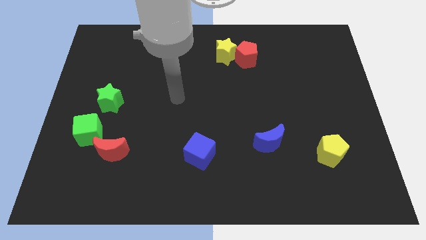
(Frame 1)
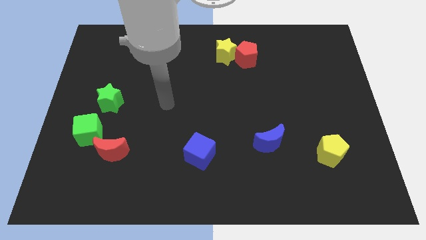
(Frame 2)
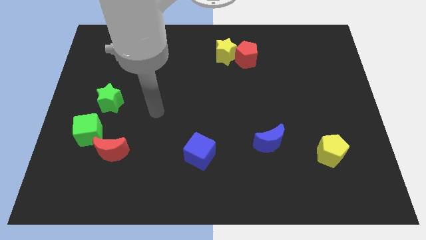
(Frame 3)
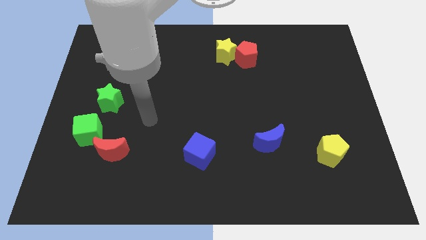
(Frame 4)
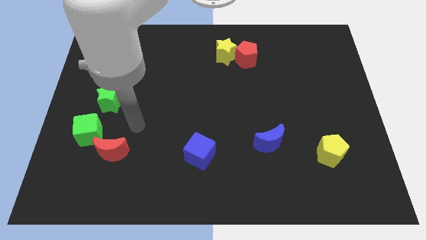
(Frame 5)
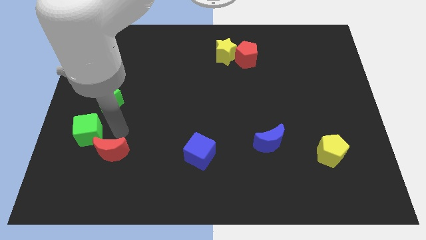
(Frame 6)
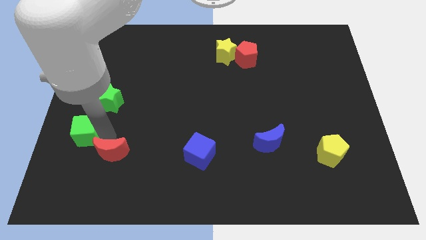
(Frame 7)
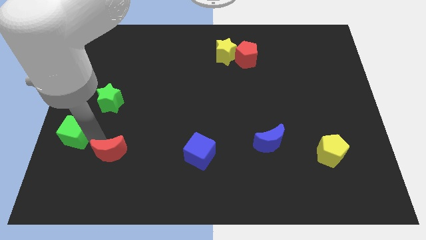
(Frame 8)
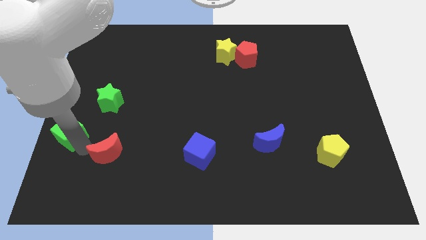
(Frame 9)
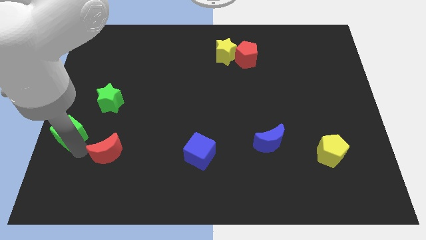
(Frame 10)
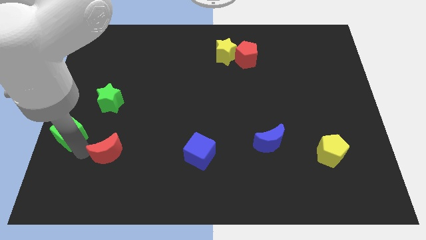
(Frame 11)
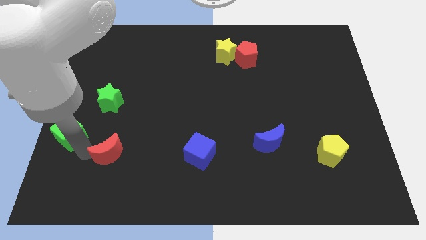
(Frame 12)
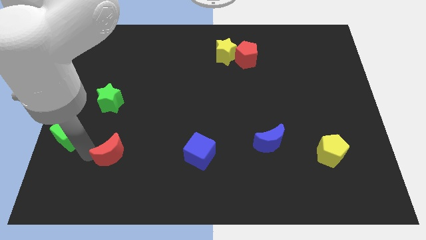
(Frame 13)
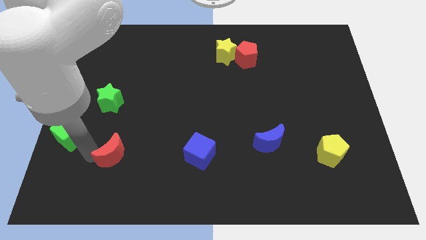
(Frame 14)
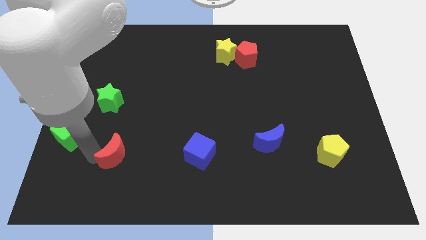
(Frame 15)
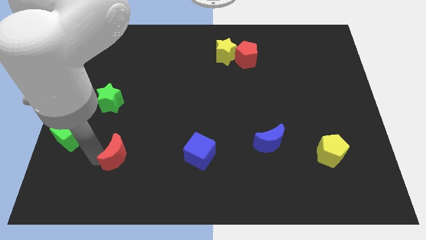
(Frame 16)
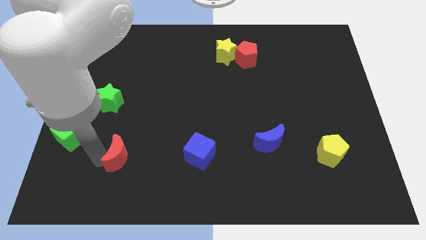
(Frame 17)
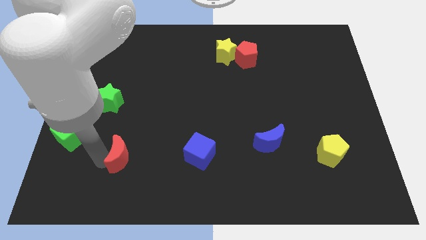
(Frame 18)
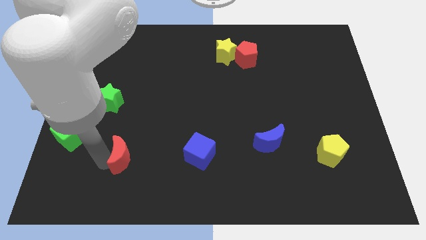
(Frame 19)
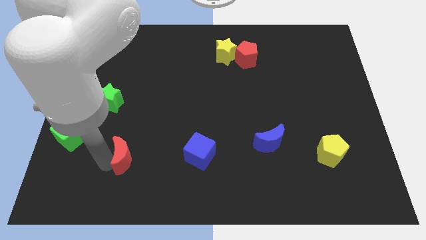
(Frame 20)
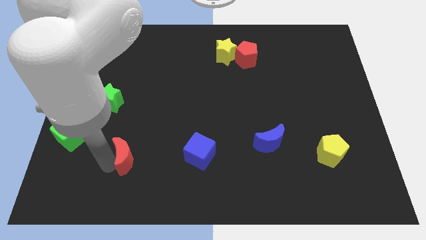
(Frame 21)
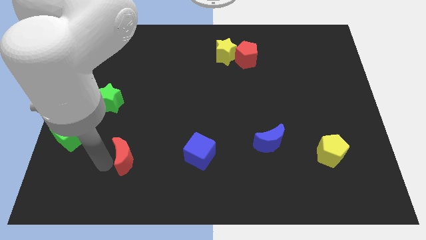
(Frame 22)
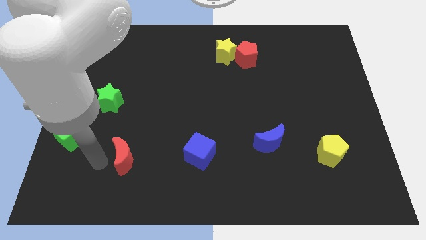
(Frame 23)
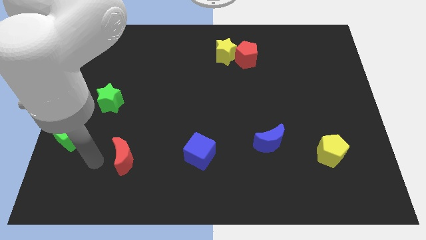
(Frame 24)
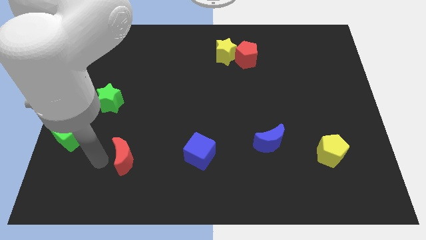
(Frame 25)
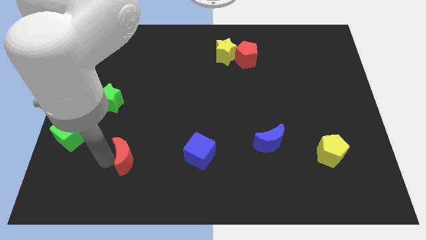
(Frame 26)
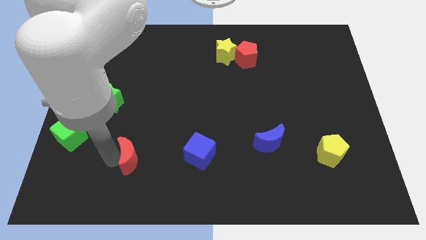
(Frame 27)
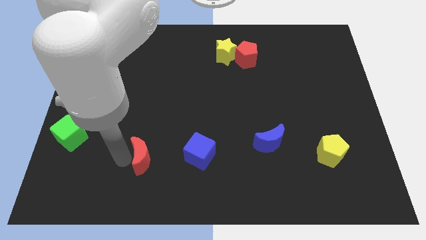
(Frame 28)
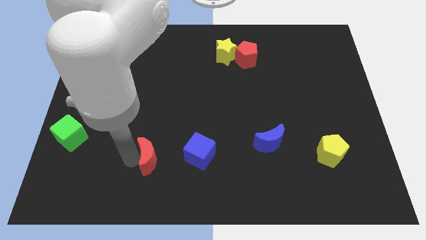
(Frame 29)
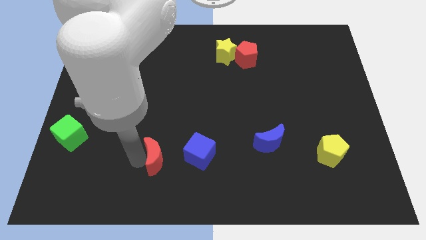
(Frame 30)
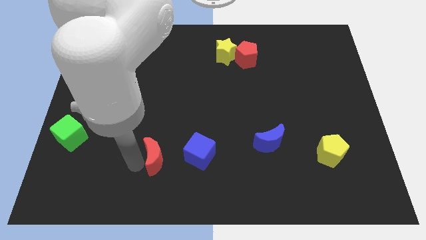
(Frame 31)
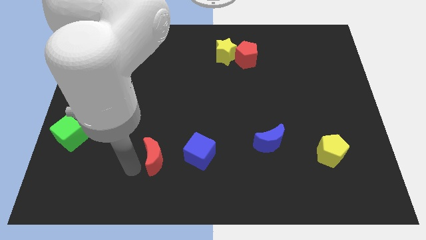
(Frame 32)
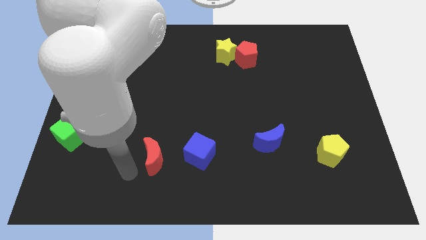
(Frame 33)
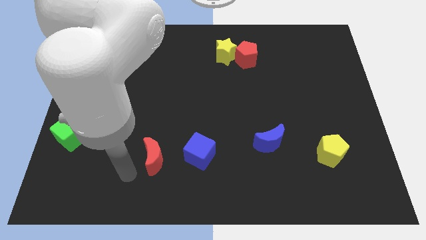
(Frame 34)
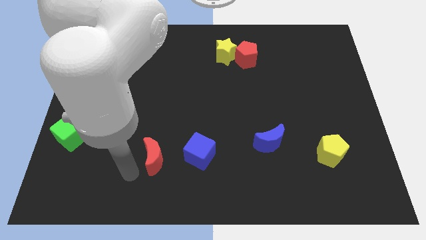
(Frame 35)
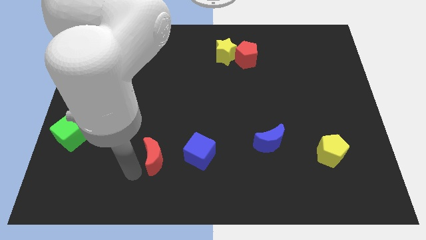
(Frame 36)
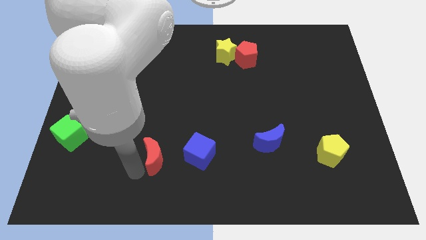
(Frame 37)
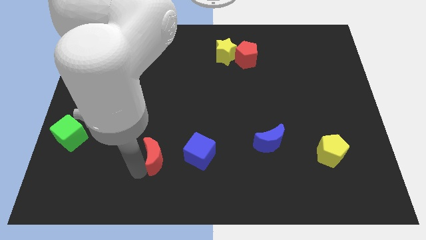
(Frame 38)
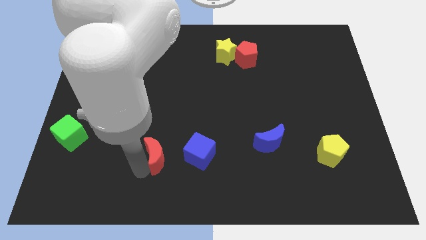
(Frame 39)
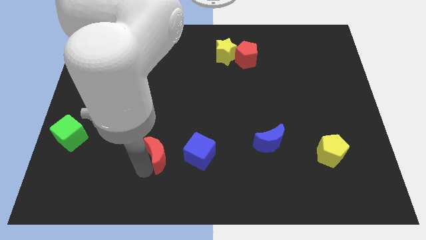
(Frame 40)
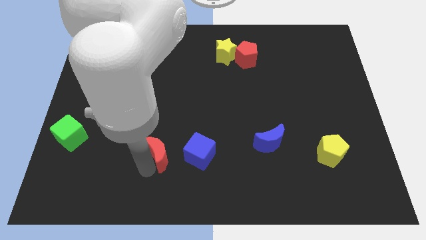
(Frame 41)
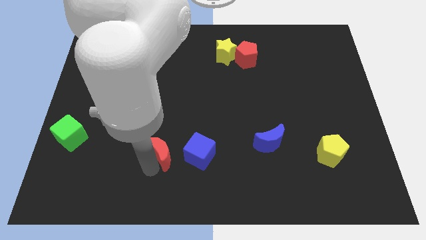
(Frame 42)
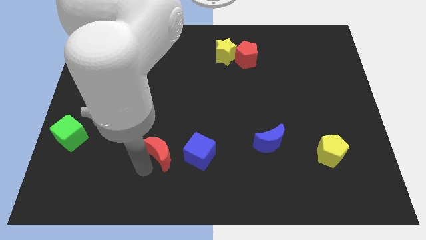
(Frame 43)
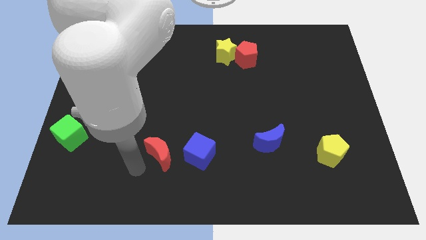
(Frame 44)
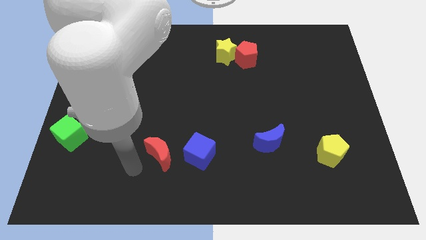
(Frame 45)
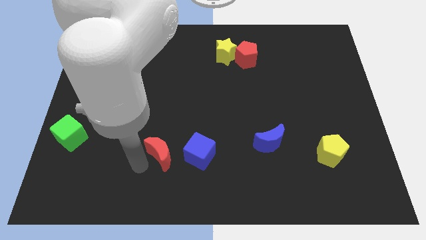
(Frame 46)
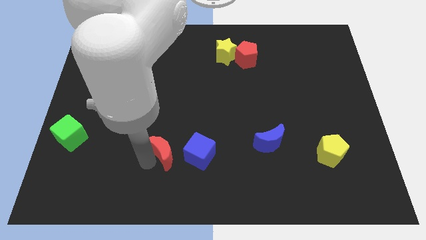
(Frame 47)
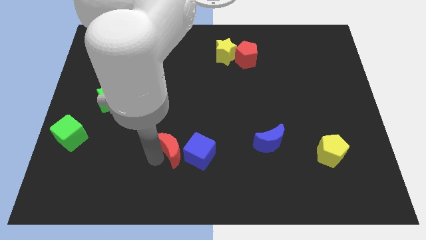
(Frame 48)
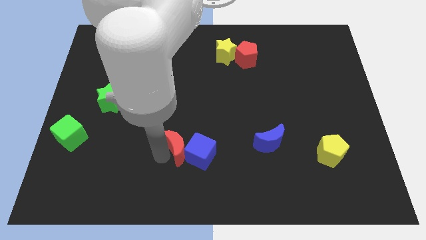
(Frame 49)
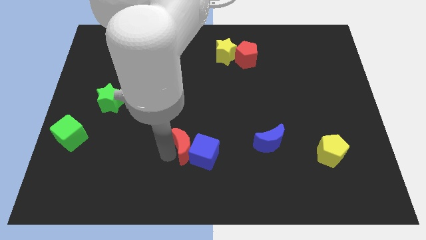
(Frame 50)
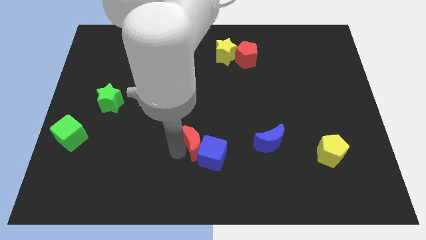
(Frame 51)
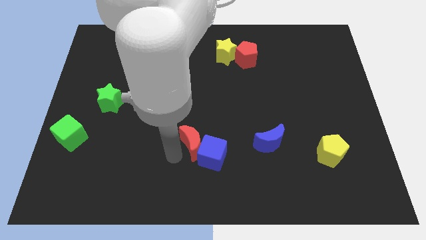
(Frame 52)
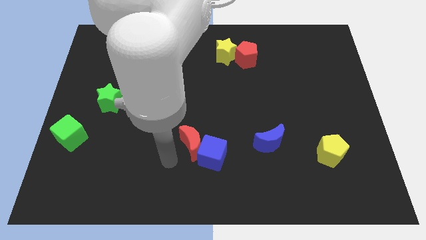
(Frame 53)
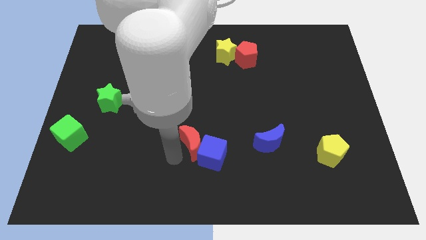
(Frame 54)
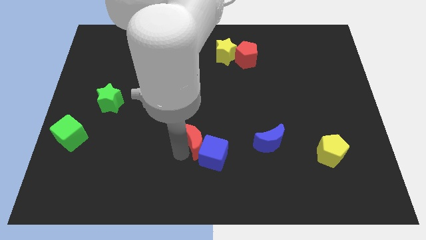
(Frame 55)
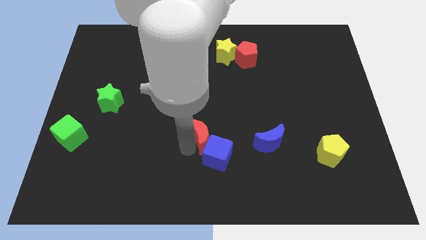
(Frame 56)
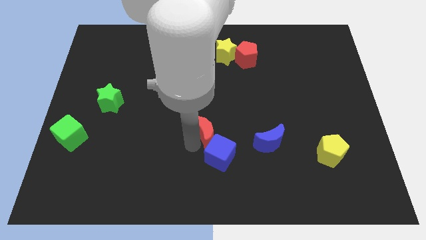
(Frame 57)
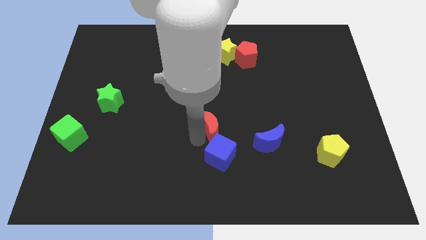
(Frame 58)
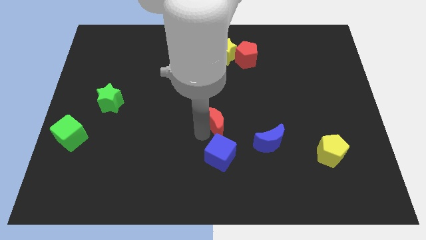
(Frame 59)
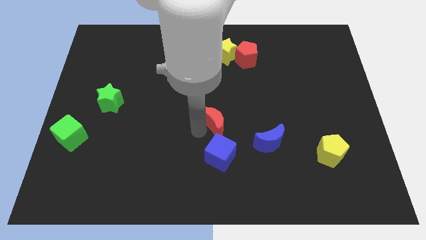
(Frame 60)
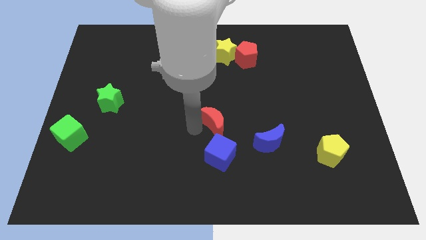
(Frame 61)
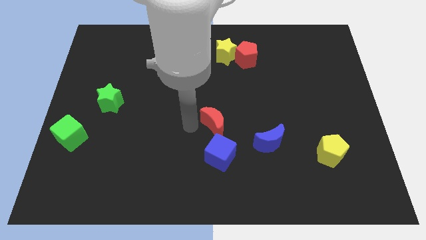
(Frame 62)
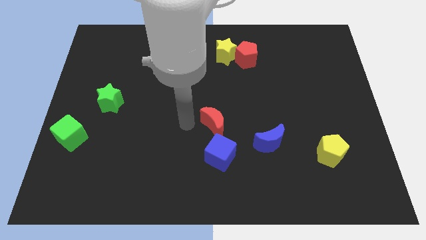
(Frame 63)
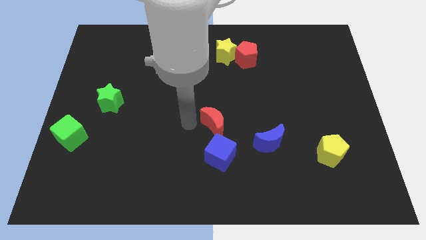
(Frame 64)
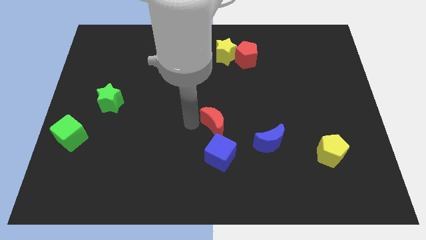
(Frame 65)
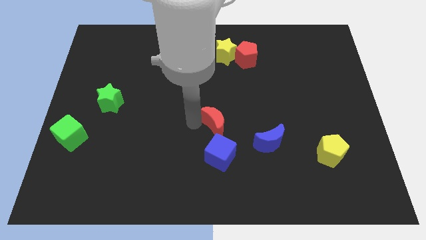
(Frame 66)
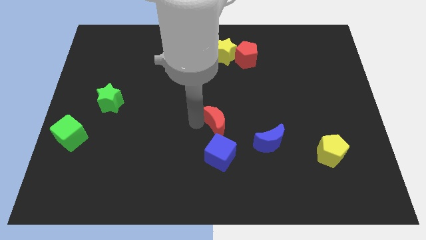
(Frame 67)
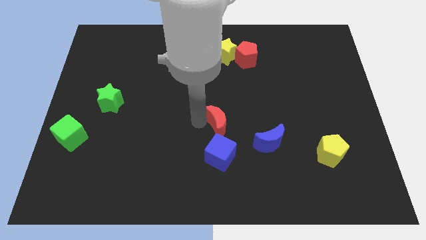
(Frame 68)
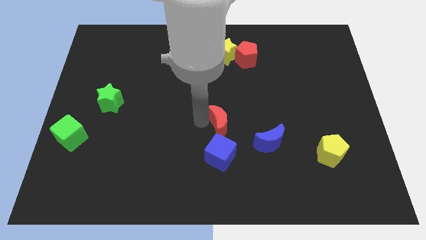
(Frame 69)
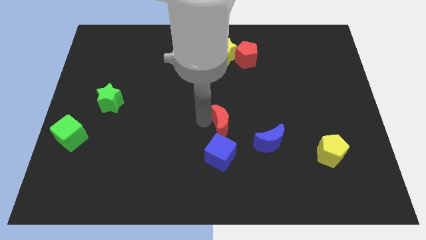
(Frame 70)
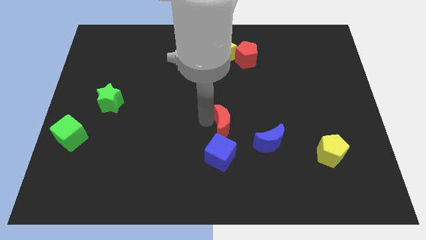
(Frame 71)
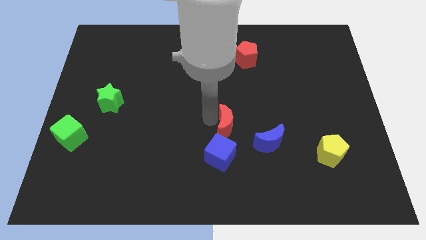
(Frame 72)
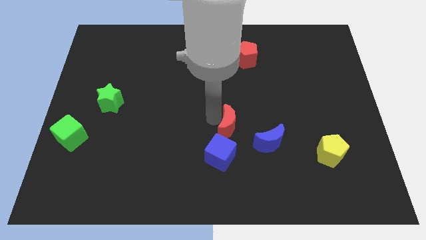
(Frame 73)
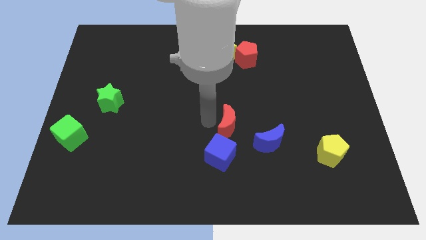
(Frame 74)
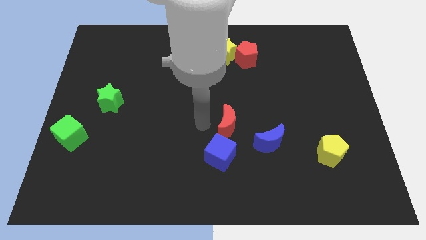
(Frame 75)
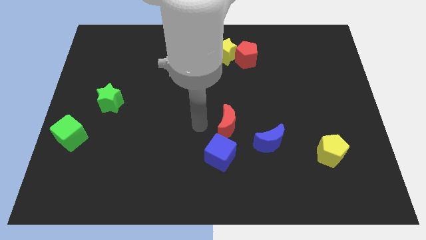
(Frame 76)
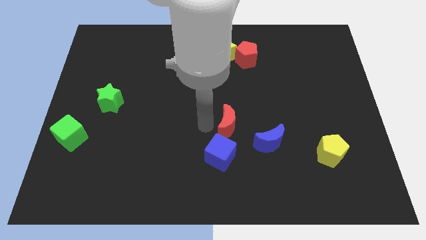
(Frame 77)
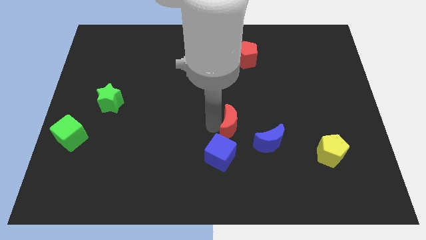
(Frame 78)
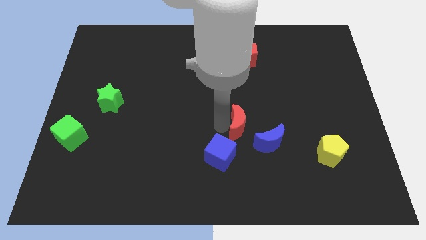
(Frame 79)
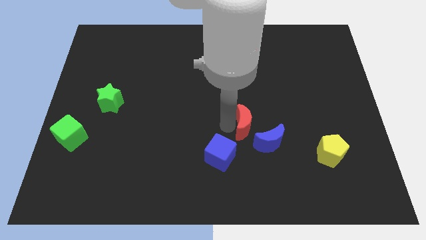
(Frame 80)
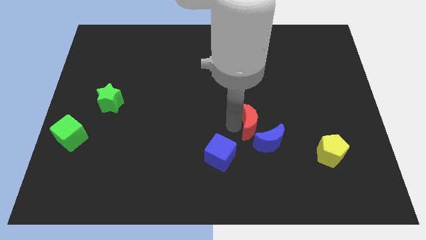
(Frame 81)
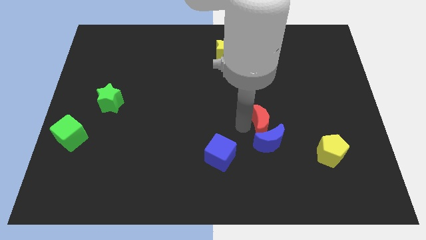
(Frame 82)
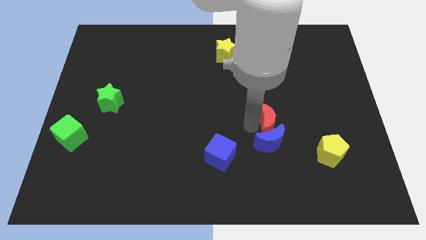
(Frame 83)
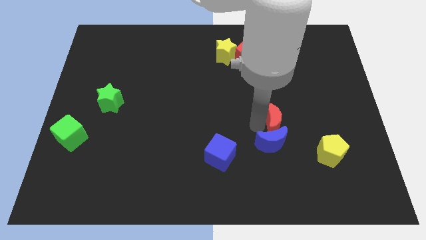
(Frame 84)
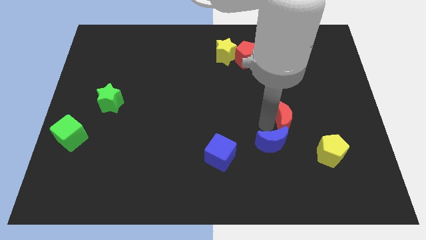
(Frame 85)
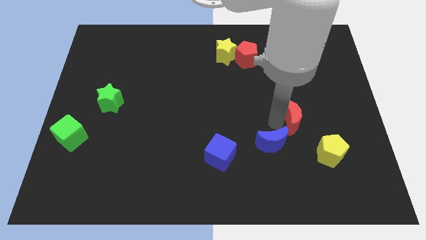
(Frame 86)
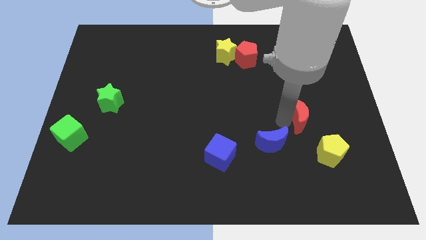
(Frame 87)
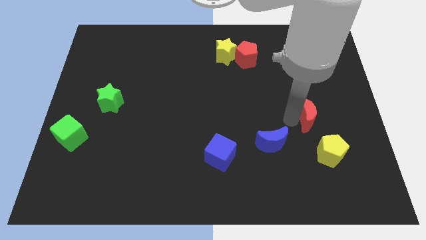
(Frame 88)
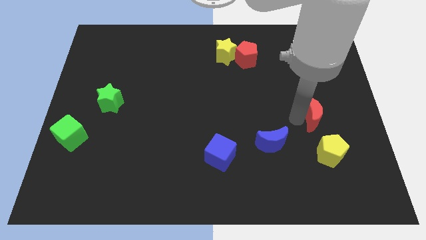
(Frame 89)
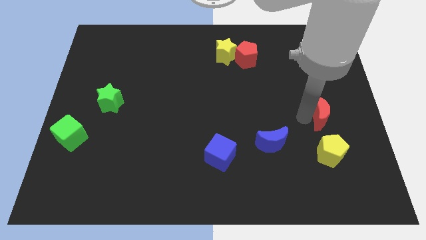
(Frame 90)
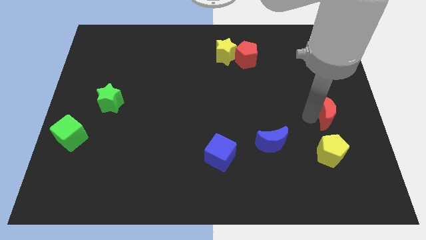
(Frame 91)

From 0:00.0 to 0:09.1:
push the red moon to the right side
